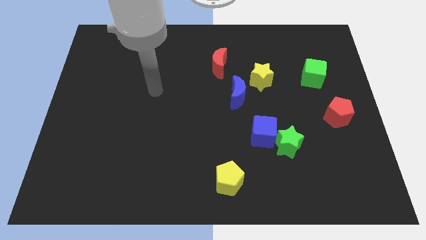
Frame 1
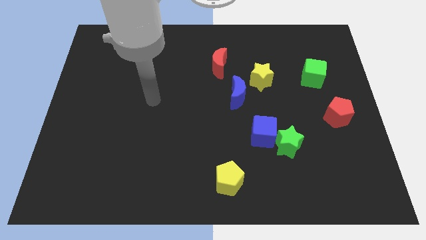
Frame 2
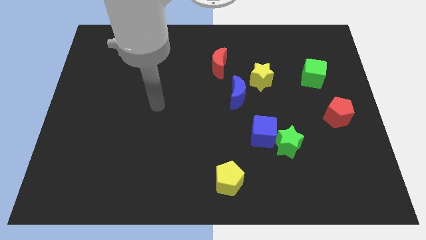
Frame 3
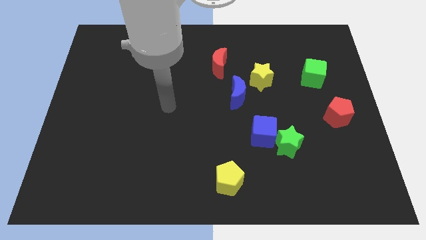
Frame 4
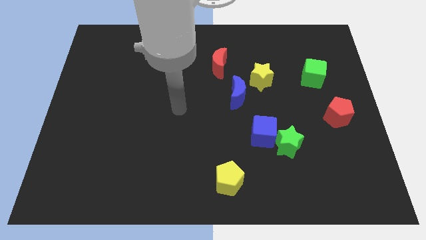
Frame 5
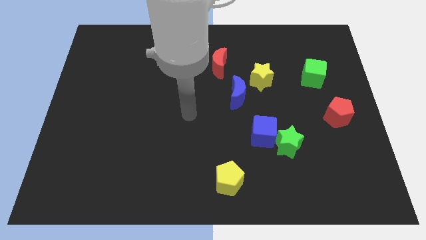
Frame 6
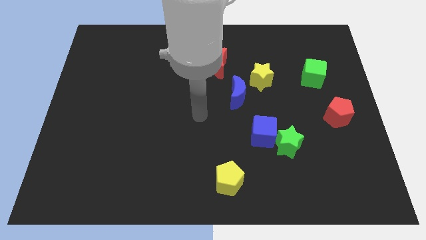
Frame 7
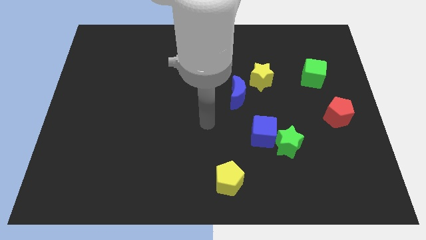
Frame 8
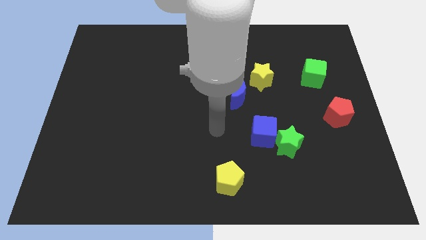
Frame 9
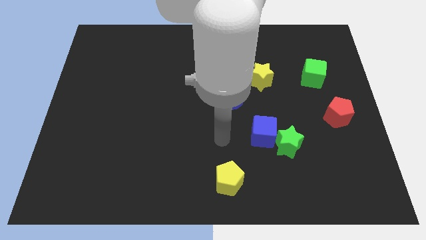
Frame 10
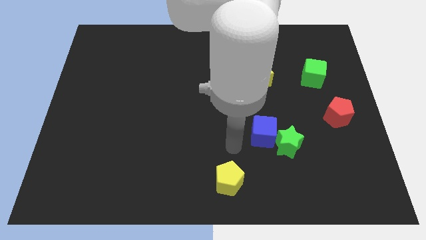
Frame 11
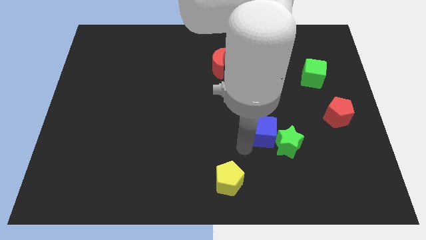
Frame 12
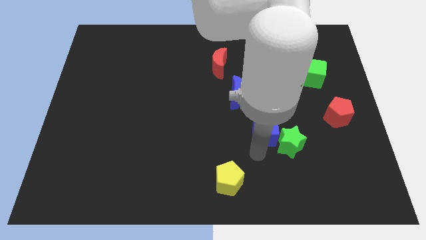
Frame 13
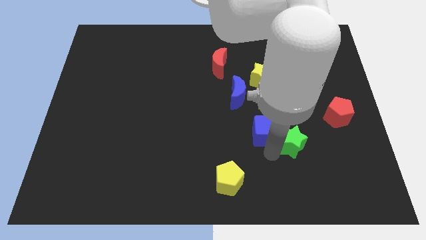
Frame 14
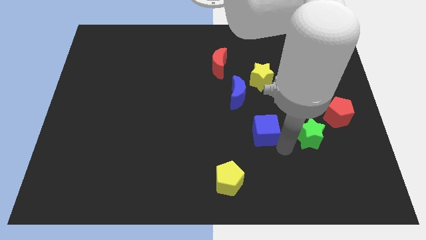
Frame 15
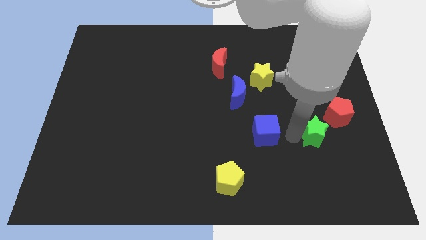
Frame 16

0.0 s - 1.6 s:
separate the blue cube from the green star

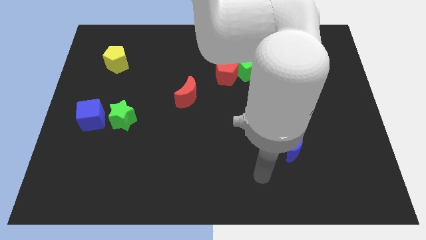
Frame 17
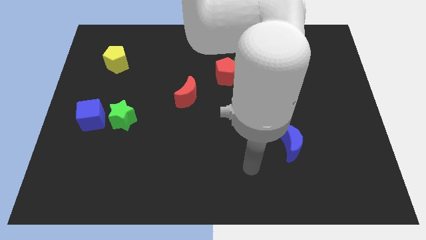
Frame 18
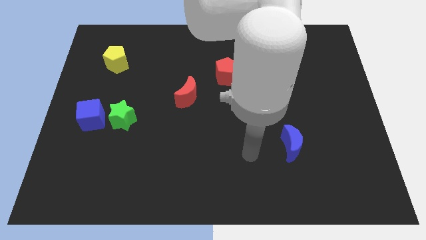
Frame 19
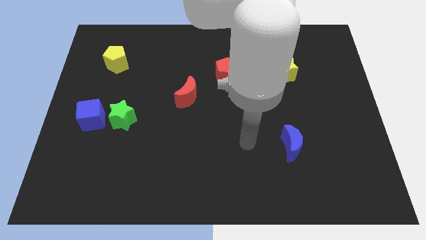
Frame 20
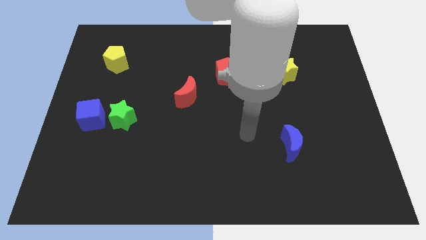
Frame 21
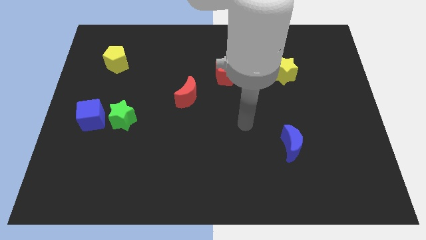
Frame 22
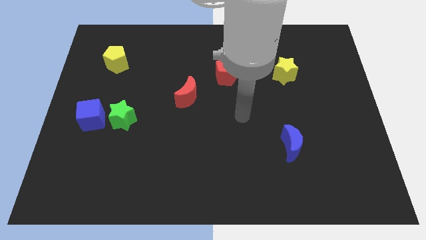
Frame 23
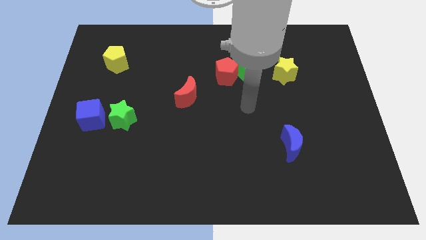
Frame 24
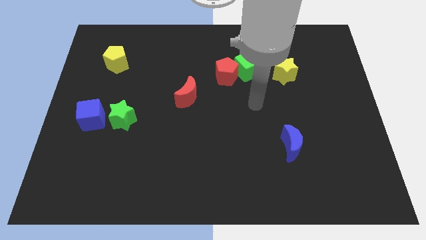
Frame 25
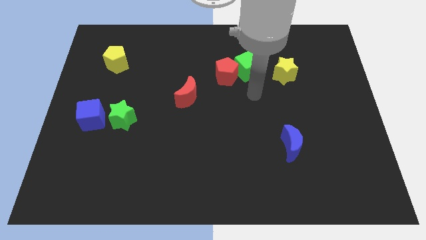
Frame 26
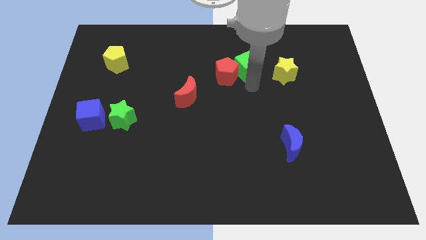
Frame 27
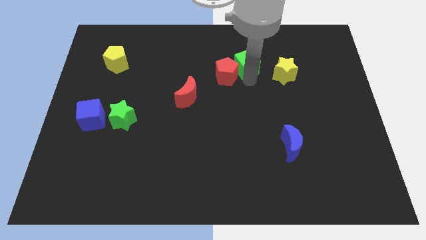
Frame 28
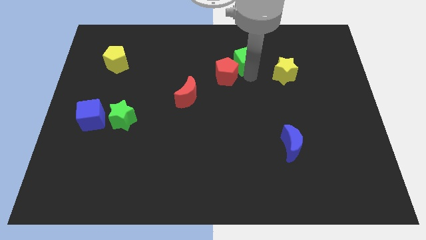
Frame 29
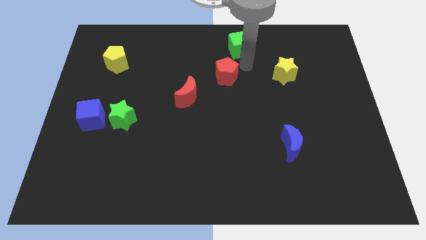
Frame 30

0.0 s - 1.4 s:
pull the red pentagon apart from the green cube

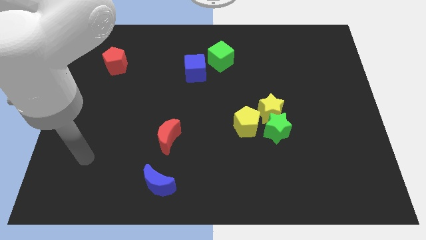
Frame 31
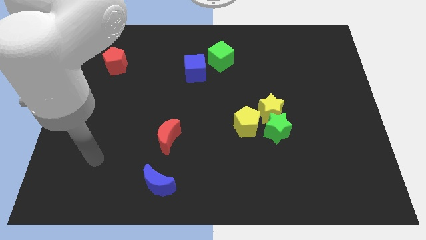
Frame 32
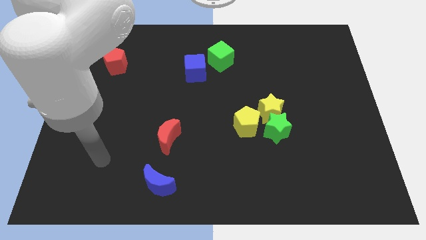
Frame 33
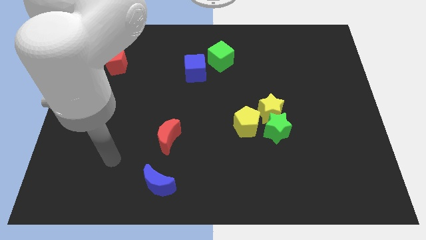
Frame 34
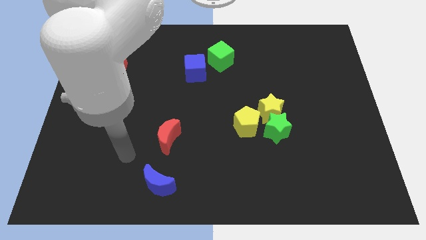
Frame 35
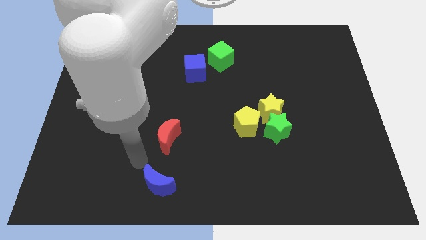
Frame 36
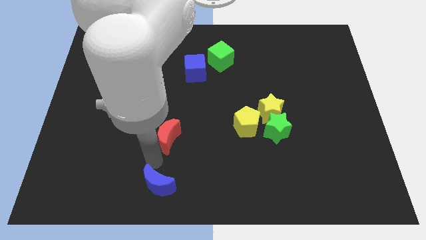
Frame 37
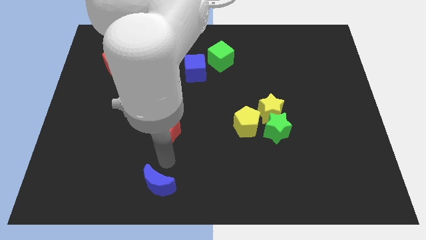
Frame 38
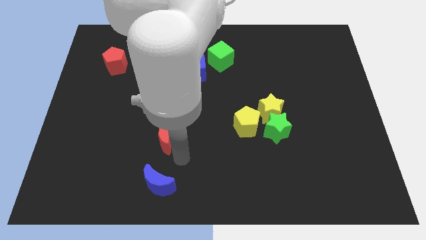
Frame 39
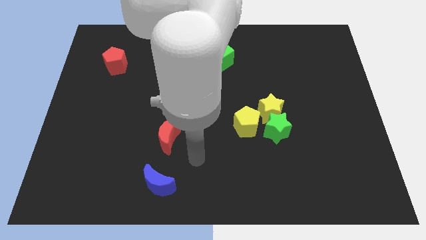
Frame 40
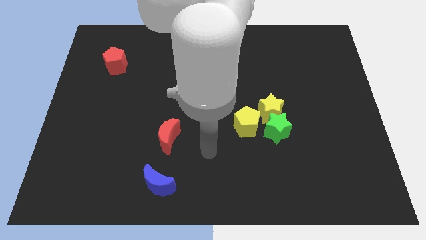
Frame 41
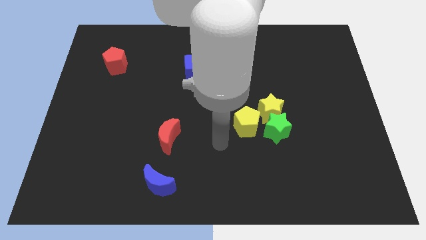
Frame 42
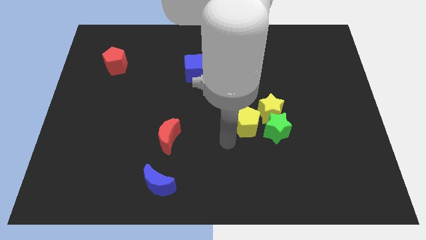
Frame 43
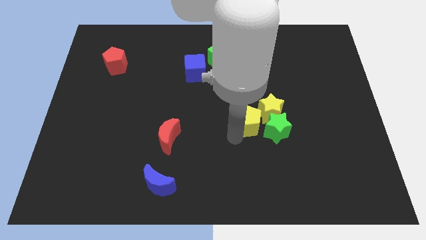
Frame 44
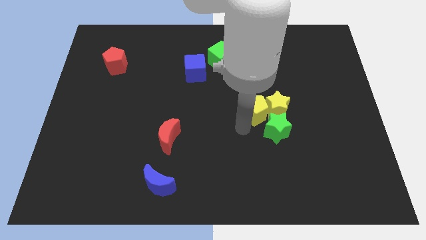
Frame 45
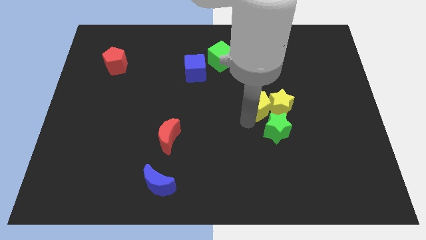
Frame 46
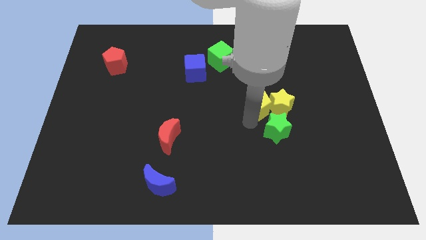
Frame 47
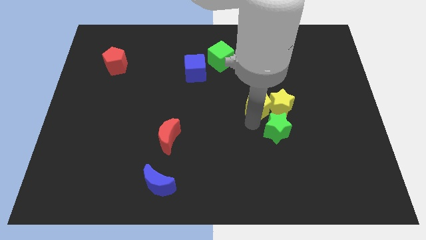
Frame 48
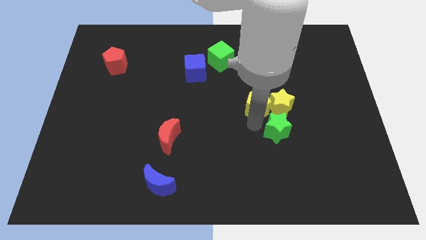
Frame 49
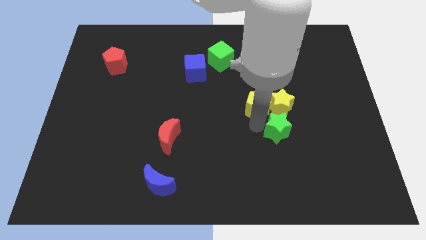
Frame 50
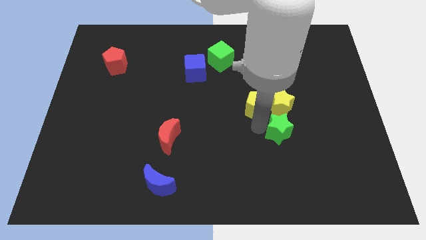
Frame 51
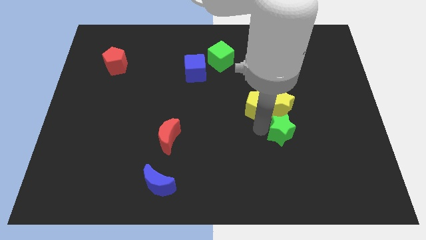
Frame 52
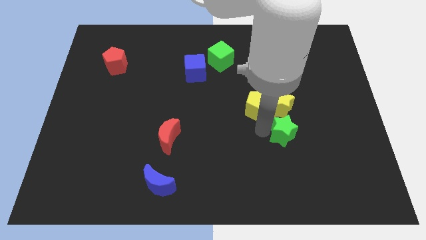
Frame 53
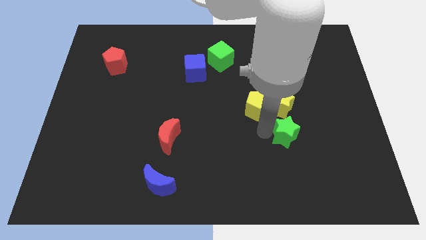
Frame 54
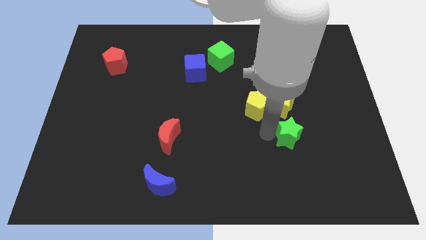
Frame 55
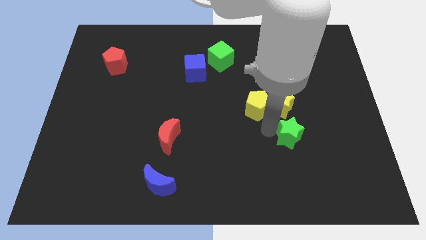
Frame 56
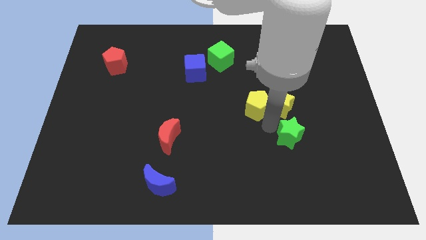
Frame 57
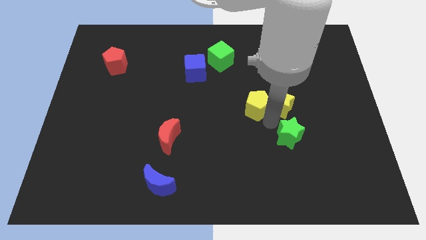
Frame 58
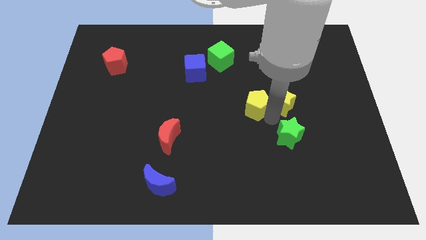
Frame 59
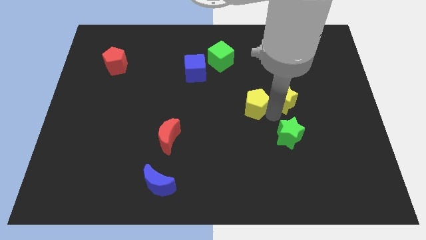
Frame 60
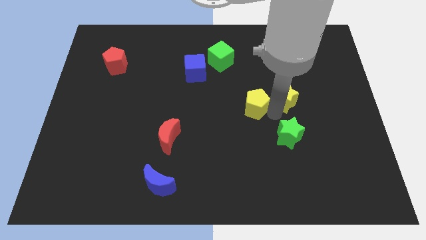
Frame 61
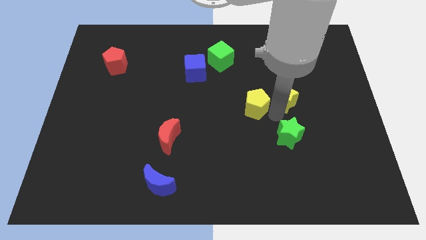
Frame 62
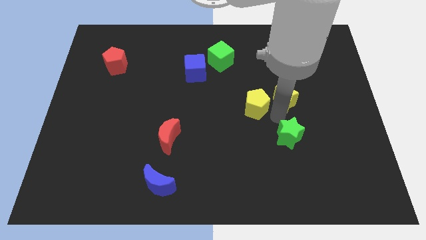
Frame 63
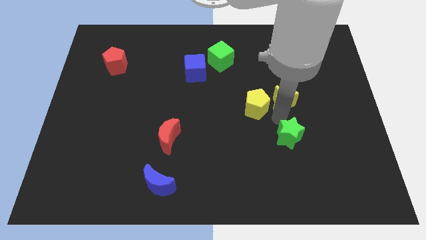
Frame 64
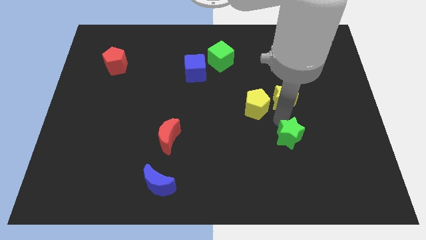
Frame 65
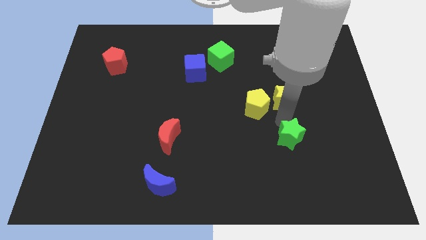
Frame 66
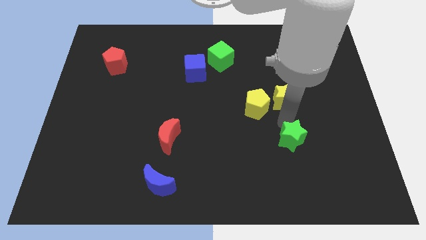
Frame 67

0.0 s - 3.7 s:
pull the green star apart from the yellow star and yellow pentagon

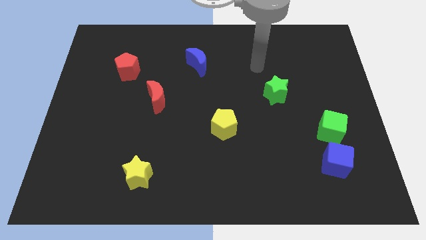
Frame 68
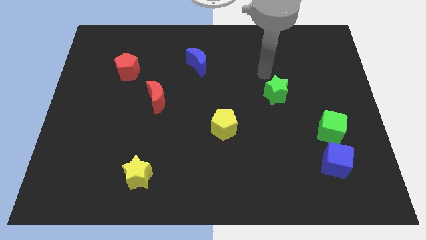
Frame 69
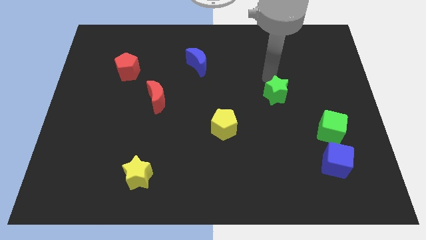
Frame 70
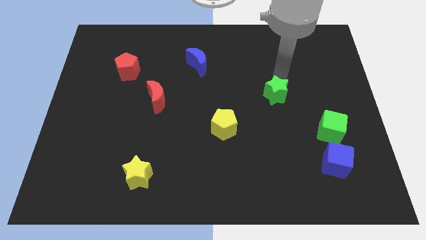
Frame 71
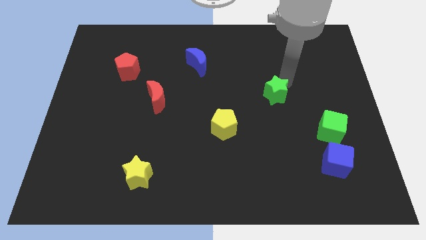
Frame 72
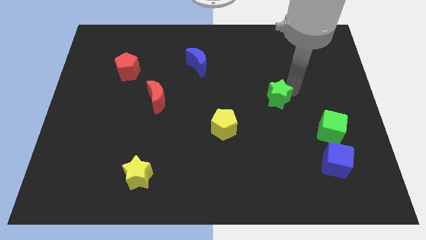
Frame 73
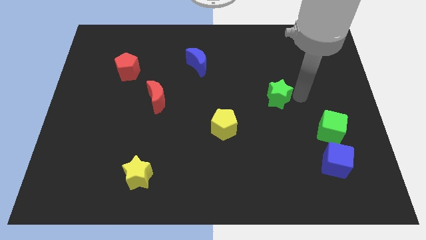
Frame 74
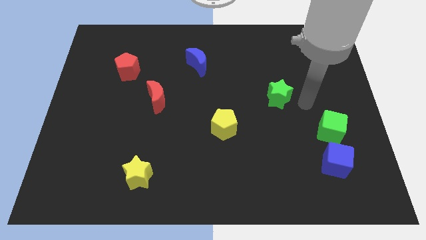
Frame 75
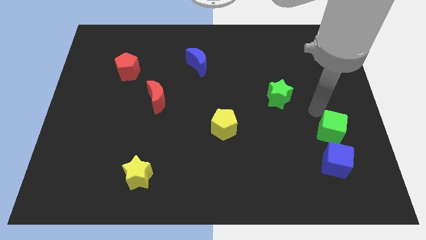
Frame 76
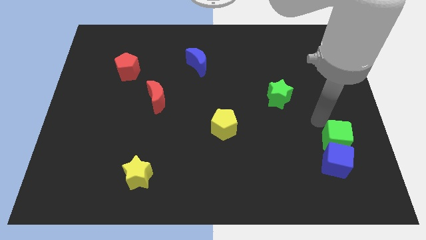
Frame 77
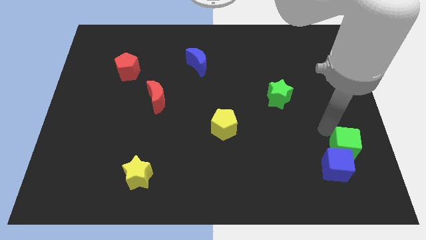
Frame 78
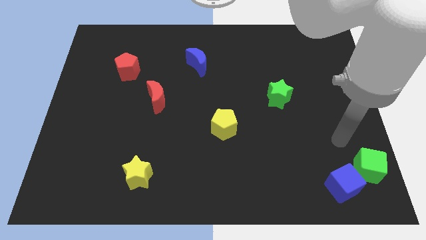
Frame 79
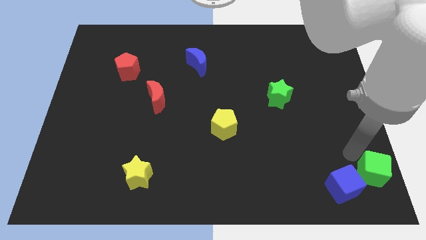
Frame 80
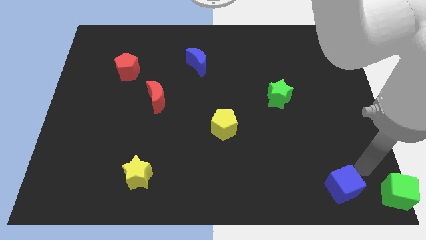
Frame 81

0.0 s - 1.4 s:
separate the blue cube from the green cube

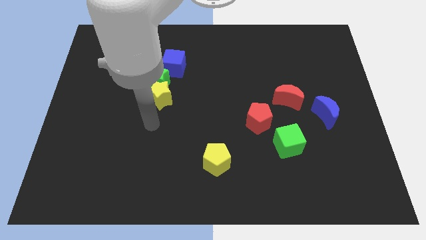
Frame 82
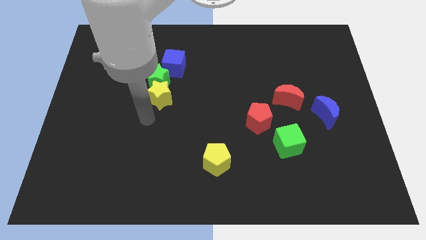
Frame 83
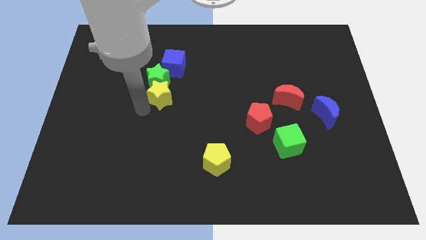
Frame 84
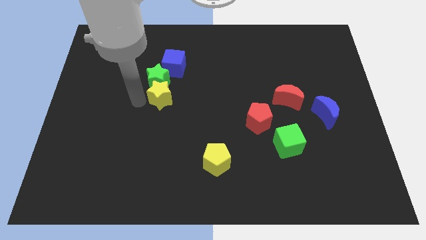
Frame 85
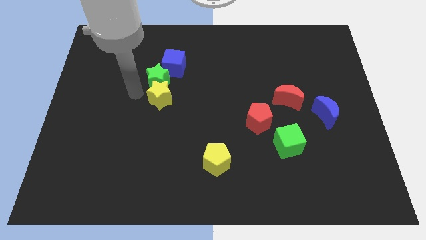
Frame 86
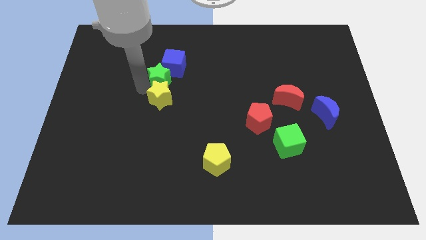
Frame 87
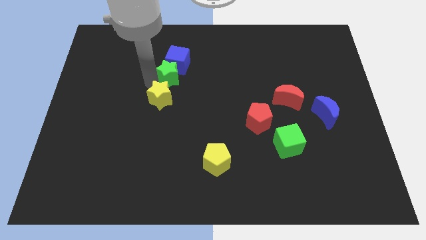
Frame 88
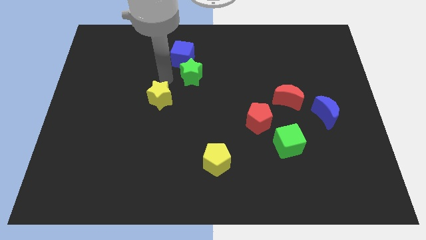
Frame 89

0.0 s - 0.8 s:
separate the yellow star from the green star

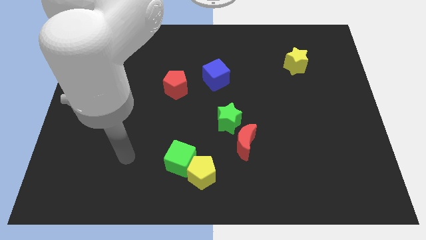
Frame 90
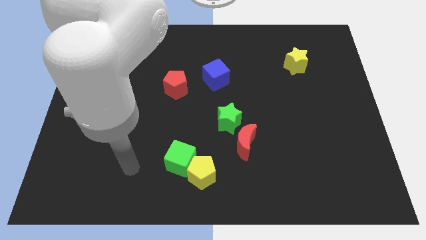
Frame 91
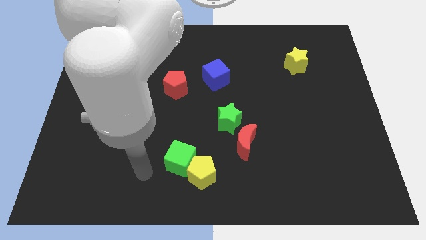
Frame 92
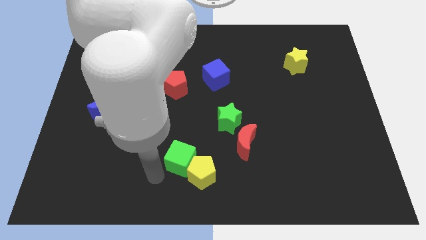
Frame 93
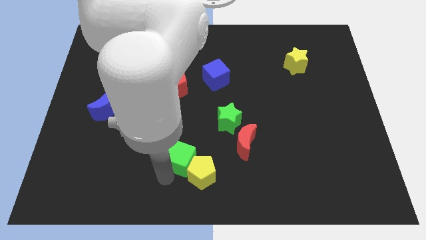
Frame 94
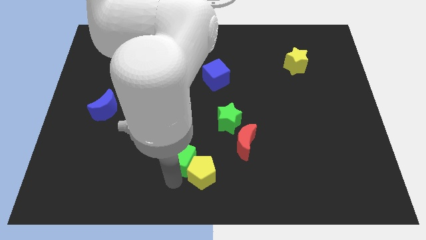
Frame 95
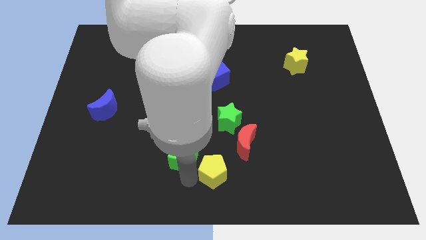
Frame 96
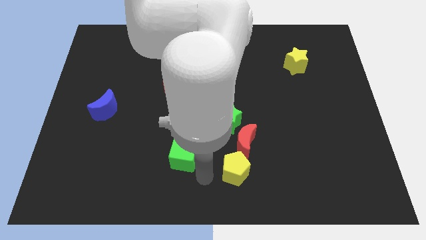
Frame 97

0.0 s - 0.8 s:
pull the green cube apart from the yellow pentagon
